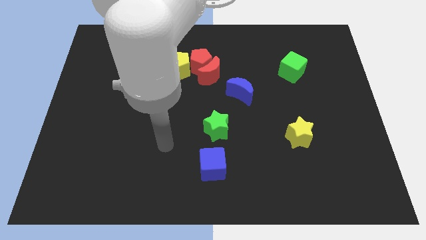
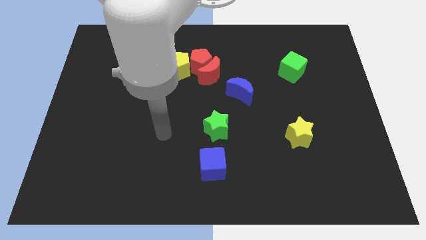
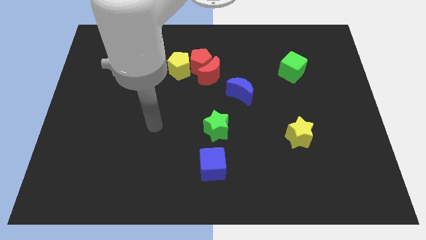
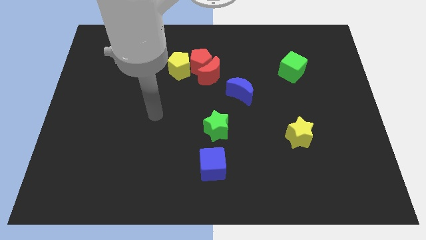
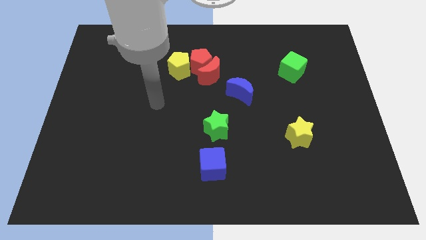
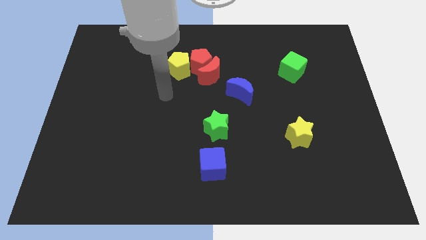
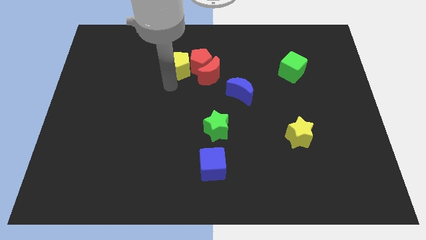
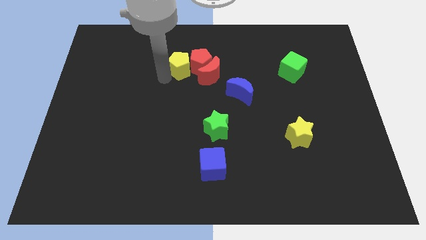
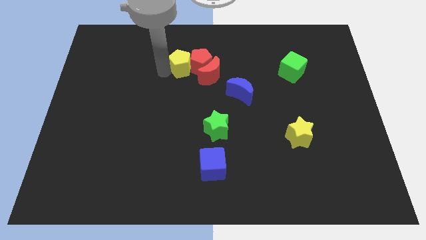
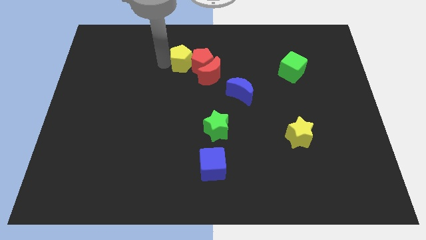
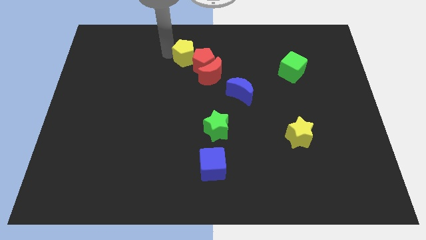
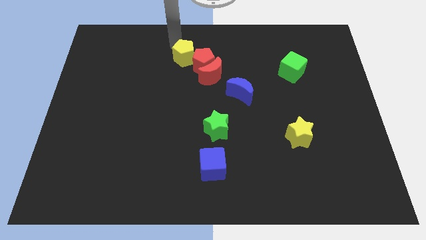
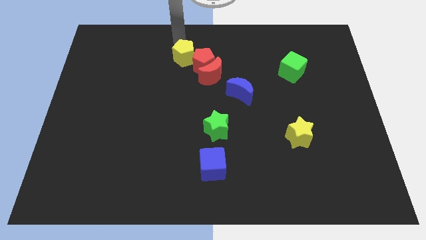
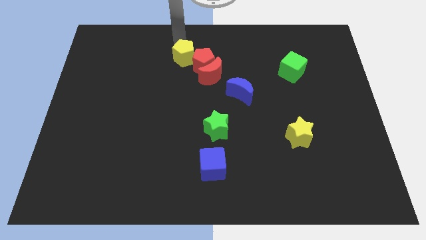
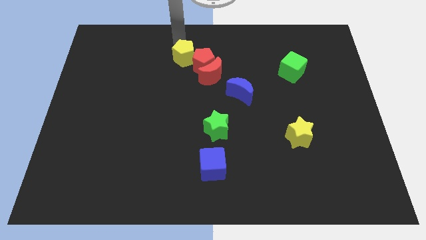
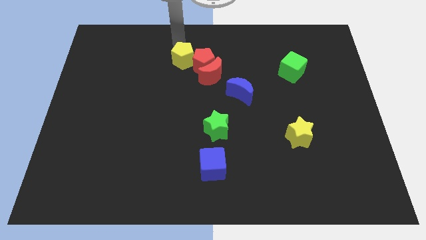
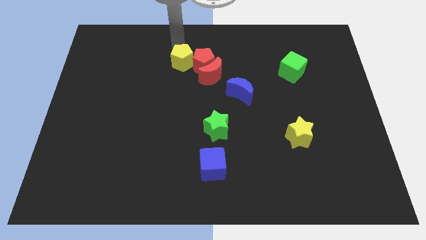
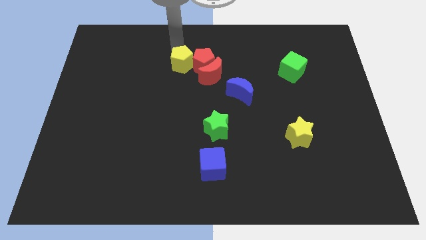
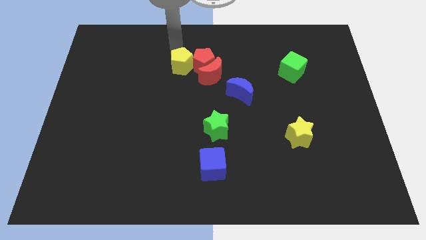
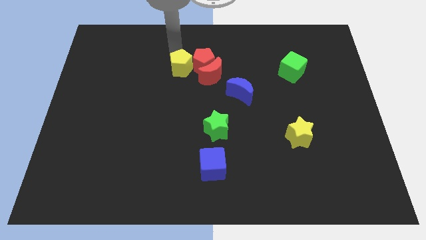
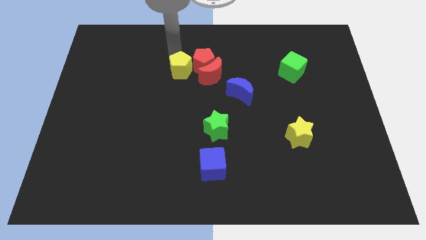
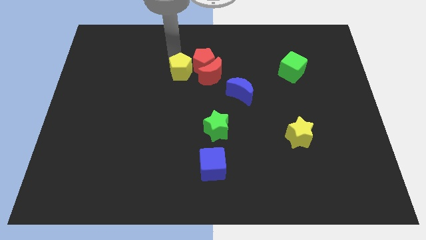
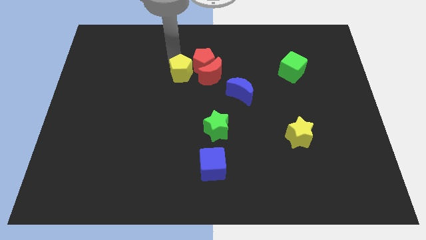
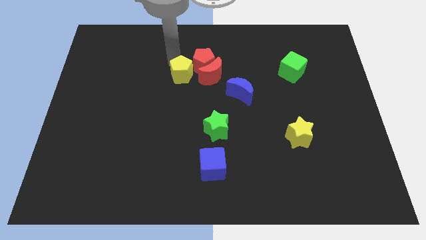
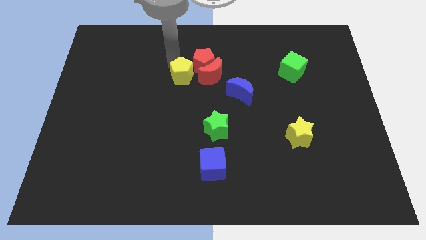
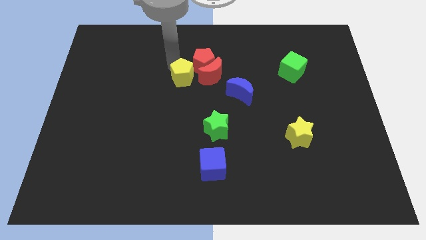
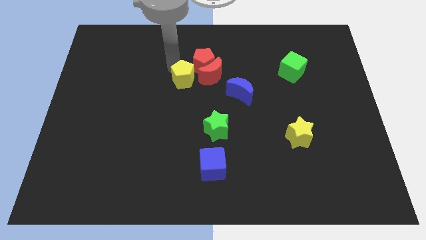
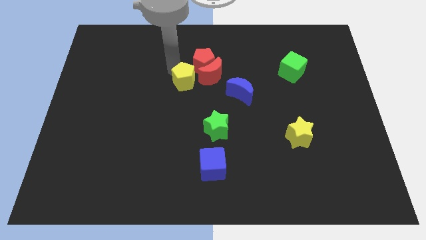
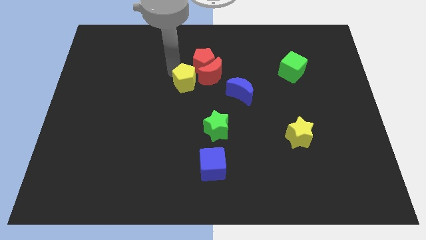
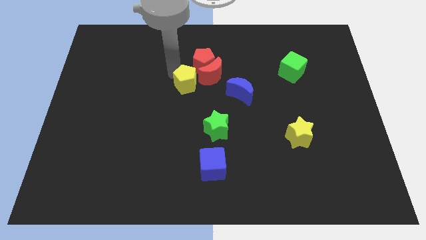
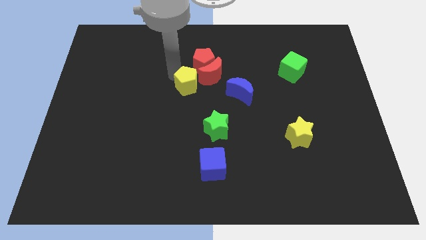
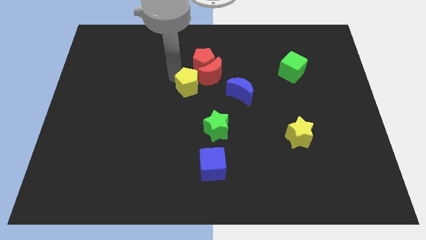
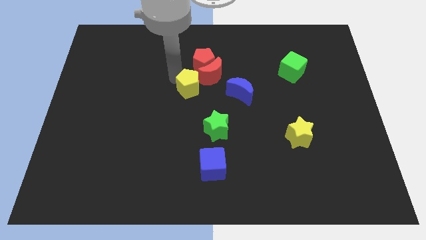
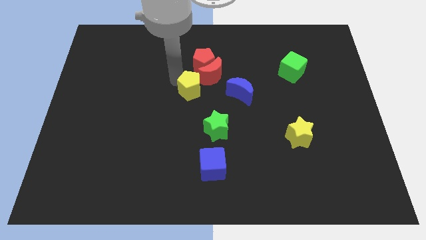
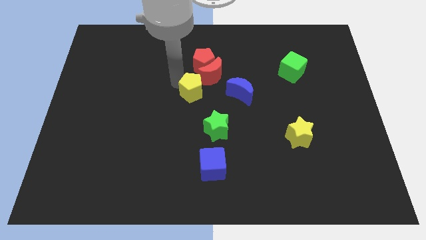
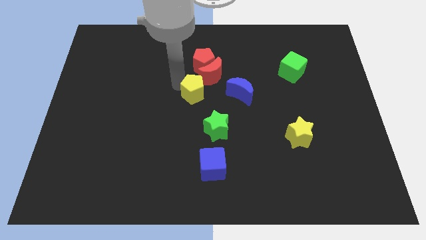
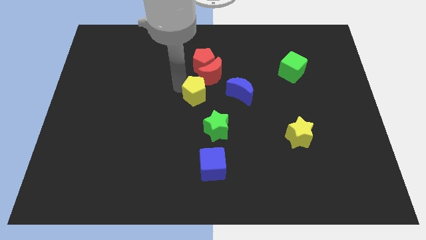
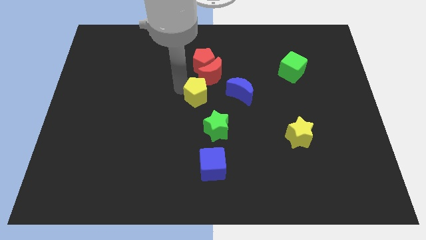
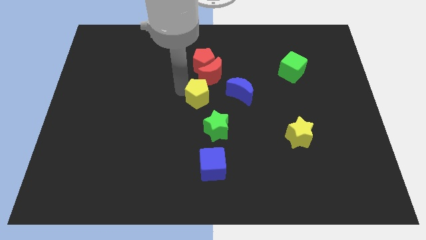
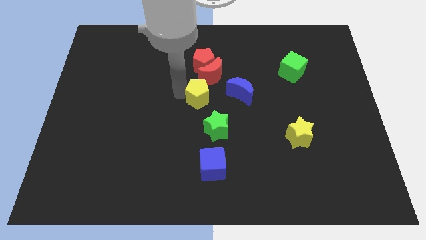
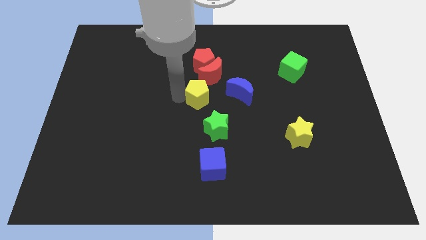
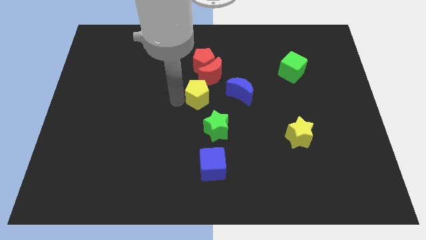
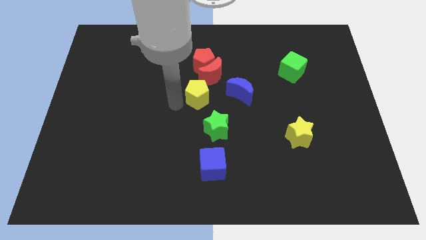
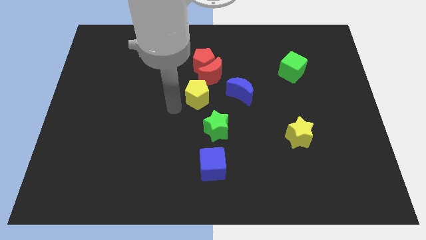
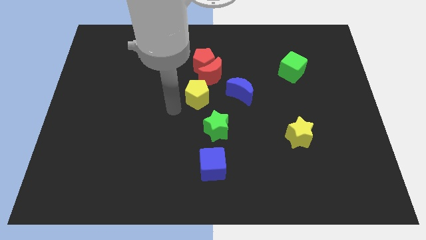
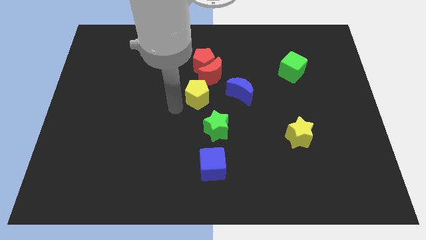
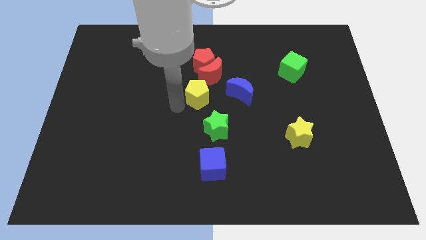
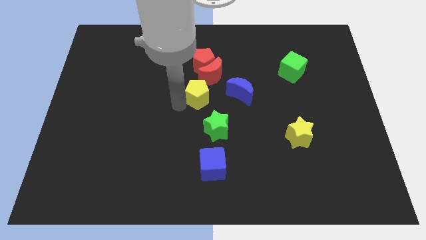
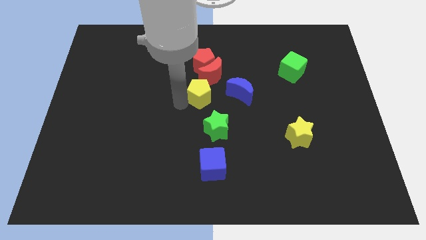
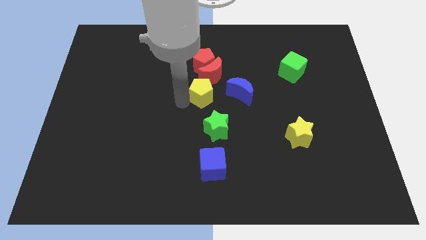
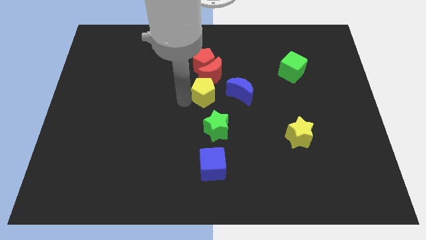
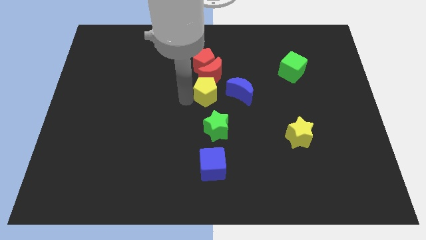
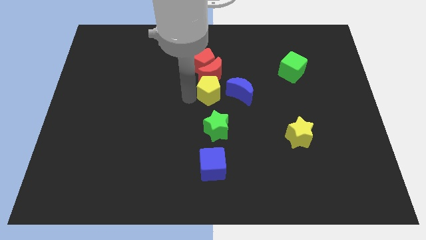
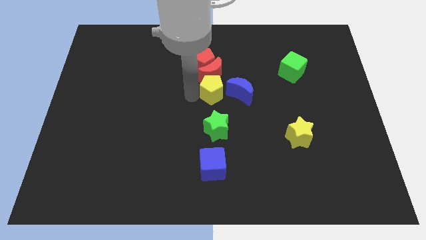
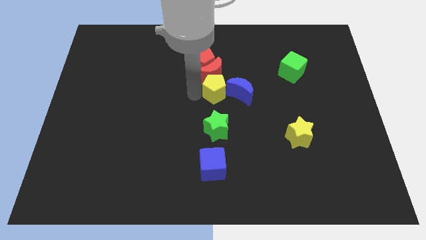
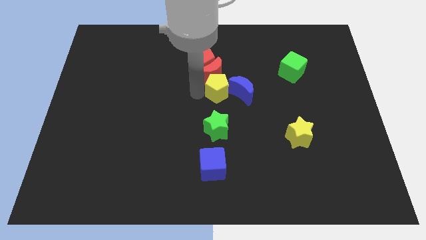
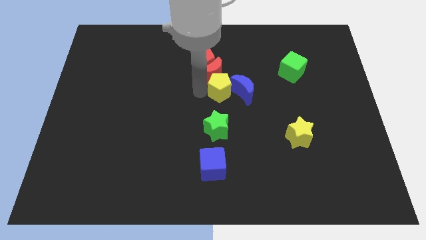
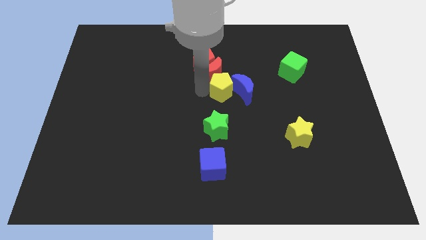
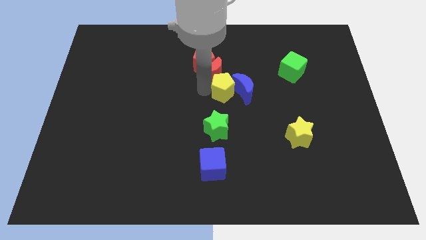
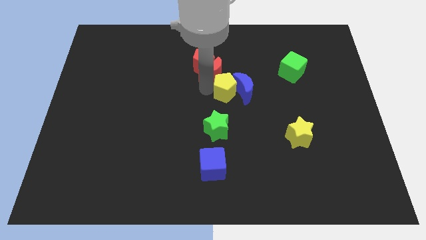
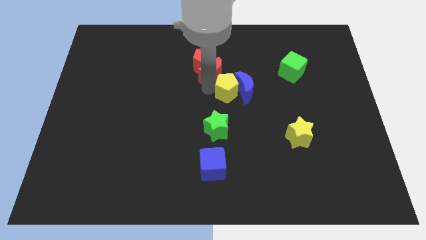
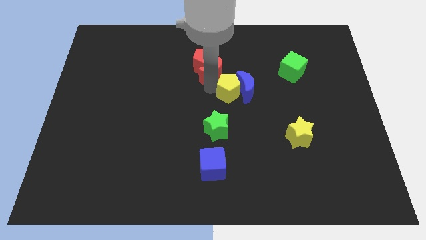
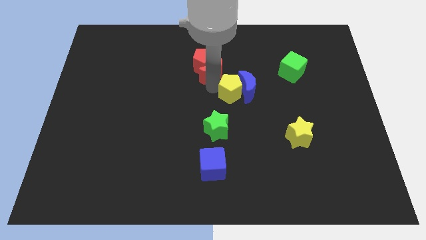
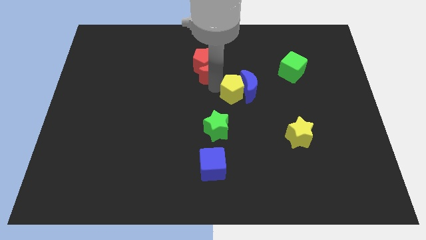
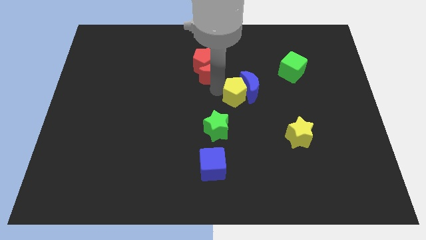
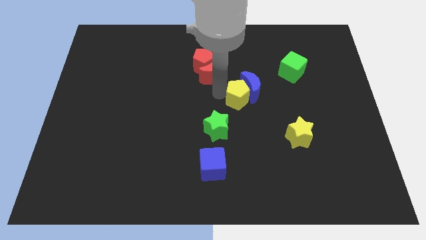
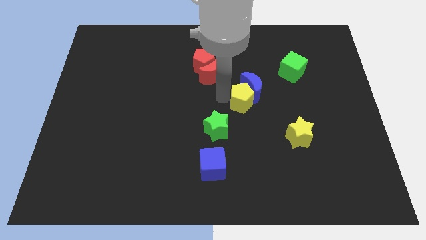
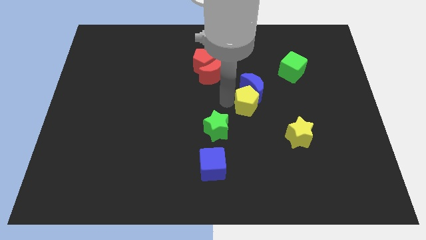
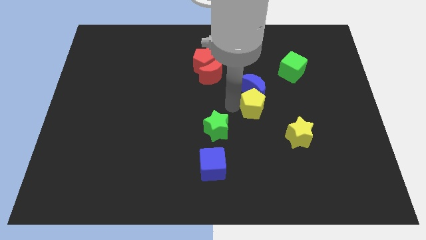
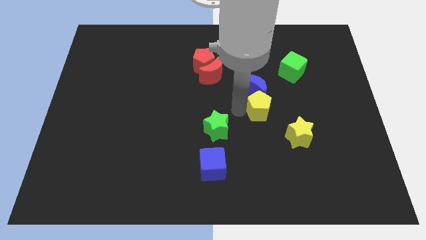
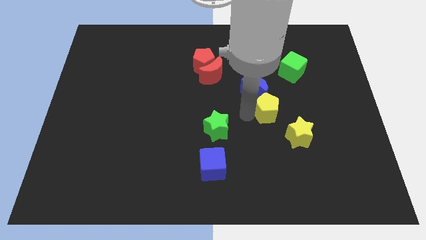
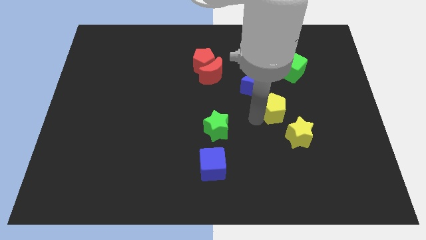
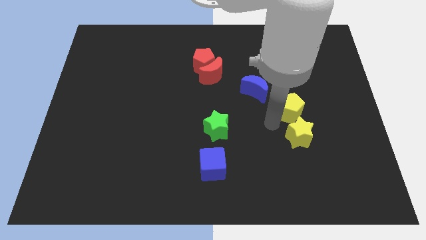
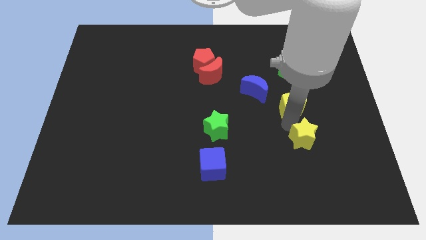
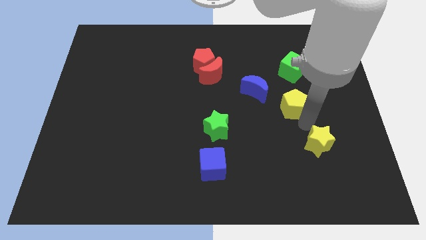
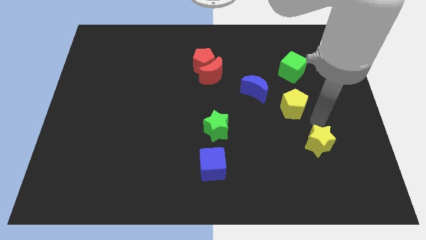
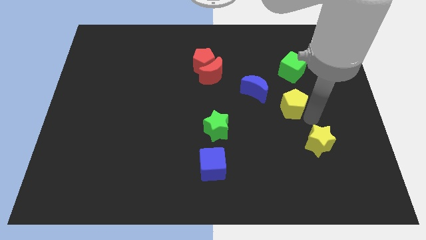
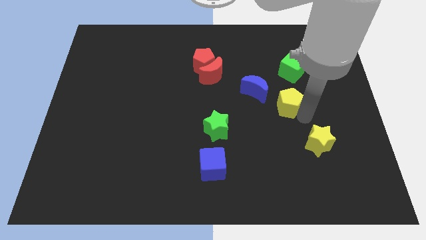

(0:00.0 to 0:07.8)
slide the yellow pentagon to the right of the blue moon
